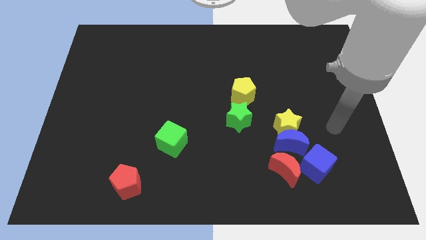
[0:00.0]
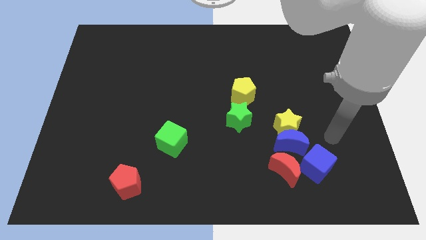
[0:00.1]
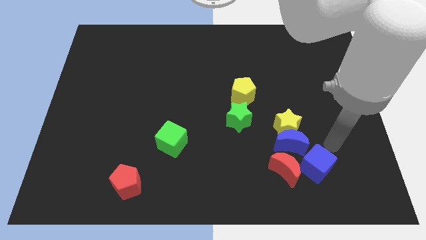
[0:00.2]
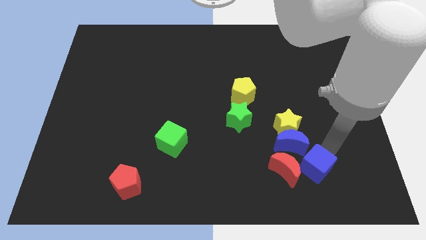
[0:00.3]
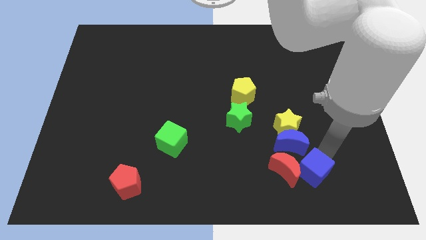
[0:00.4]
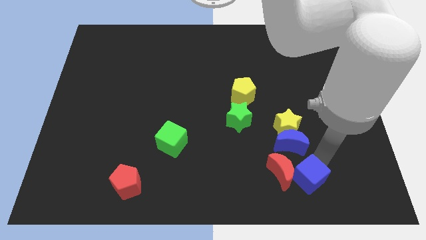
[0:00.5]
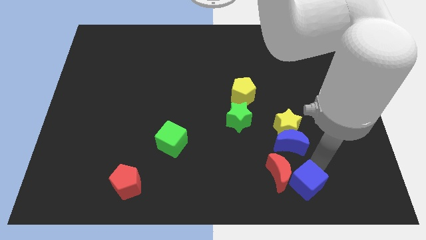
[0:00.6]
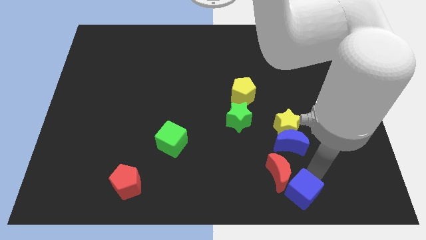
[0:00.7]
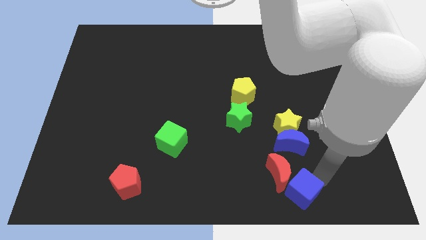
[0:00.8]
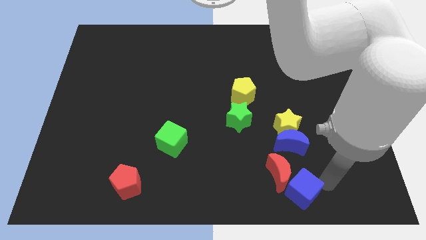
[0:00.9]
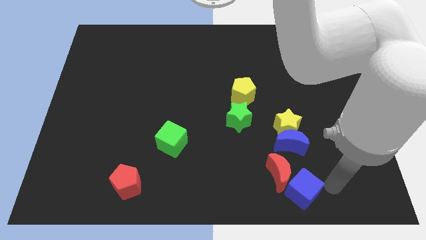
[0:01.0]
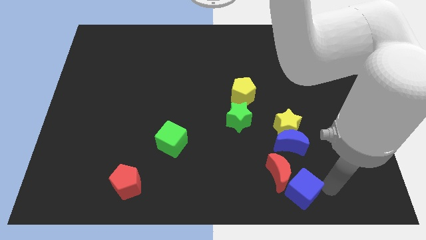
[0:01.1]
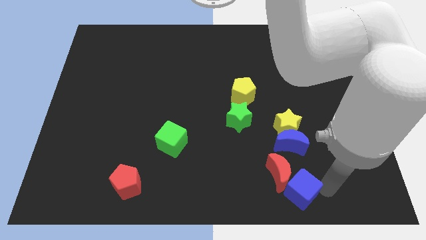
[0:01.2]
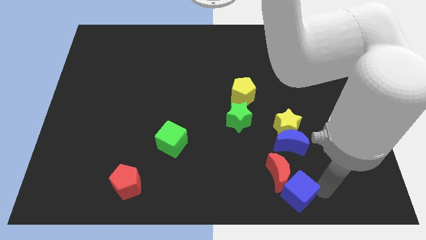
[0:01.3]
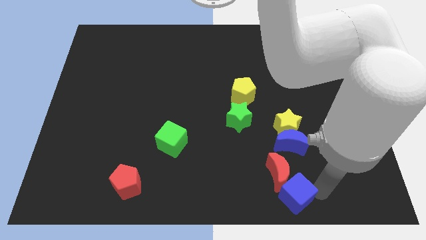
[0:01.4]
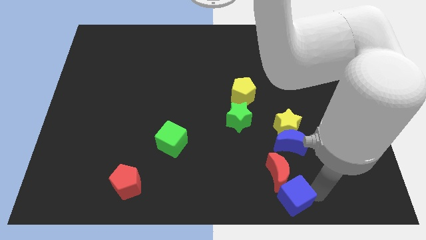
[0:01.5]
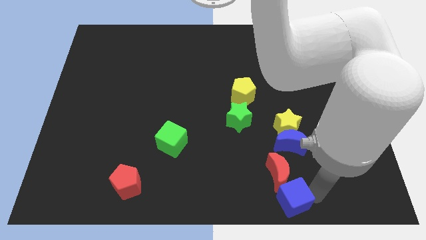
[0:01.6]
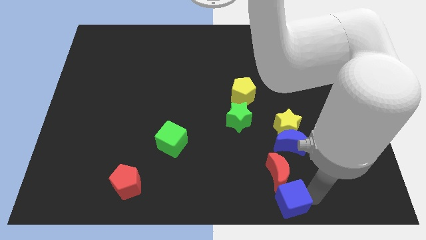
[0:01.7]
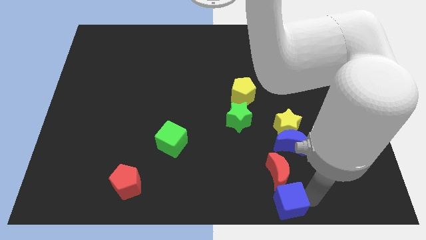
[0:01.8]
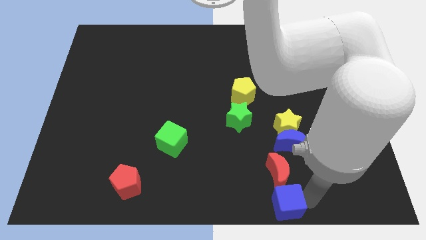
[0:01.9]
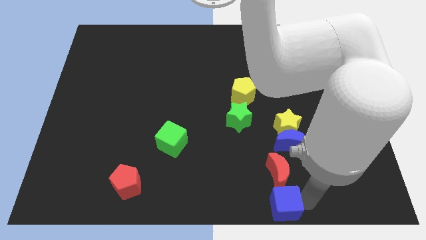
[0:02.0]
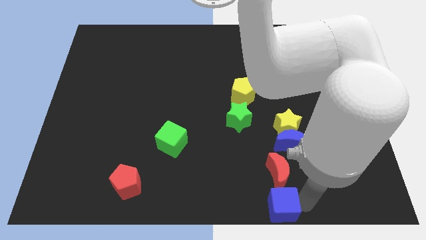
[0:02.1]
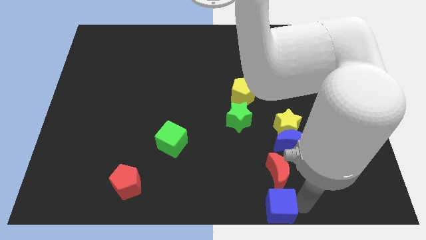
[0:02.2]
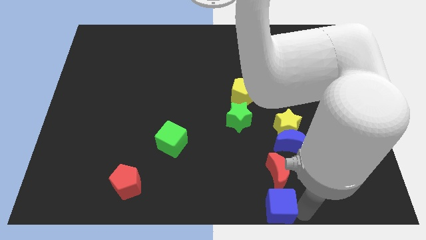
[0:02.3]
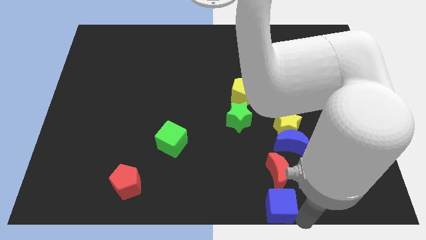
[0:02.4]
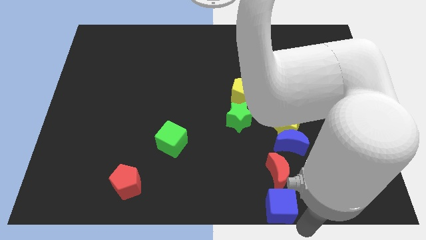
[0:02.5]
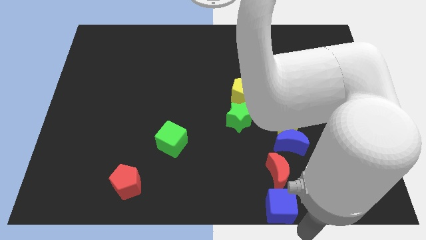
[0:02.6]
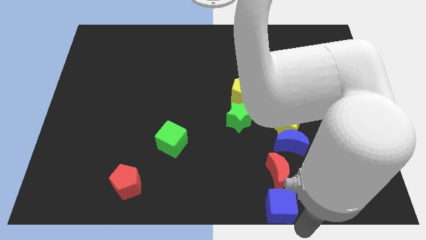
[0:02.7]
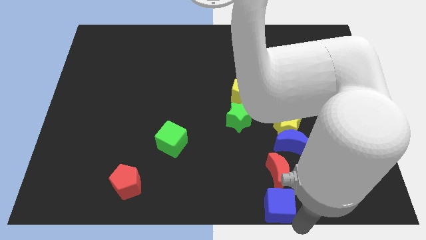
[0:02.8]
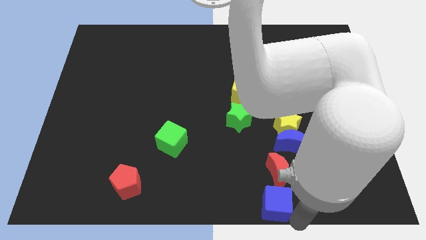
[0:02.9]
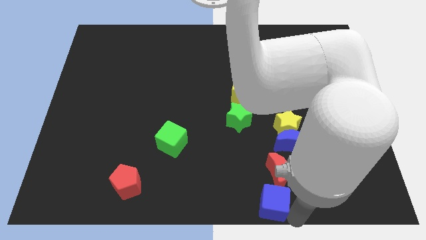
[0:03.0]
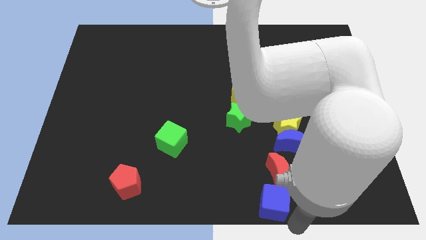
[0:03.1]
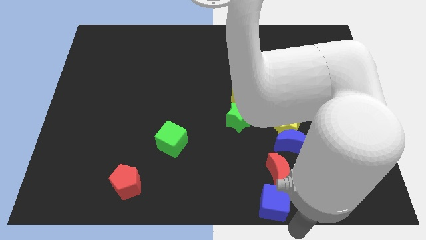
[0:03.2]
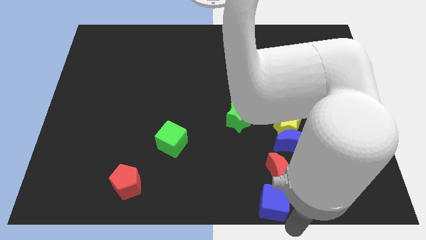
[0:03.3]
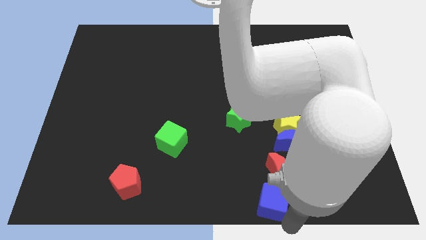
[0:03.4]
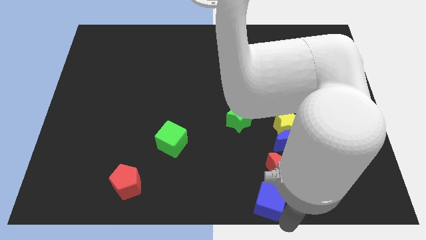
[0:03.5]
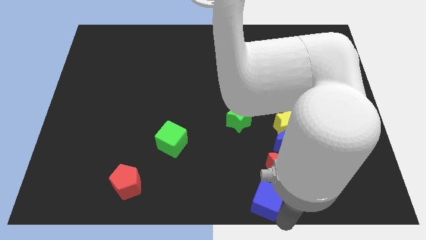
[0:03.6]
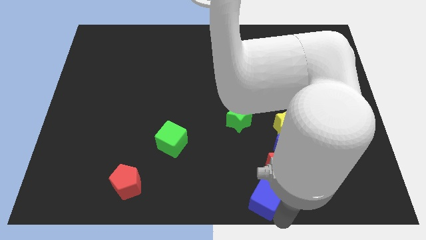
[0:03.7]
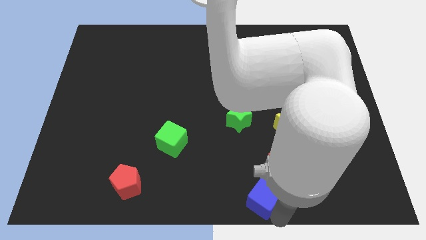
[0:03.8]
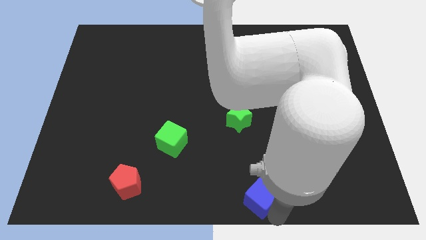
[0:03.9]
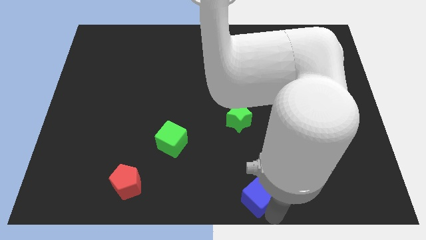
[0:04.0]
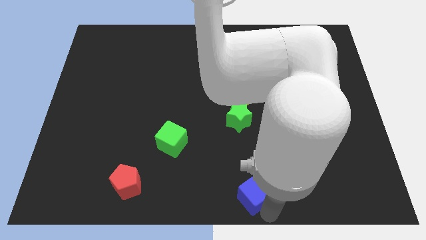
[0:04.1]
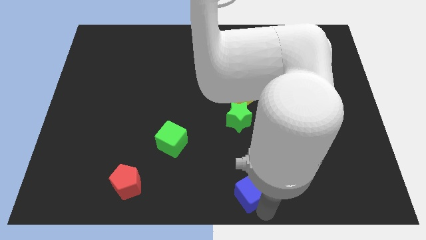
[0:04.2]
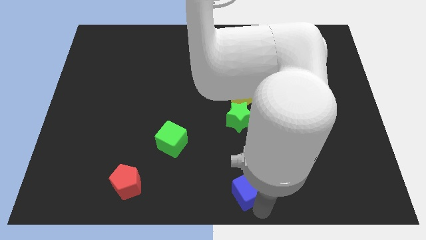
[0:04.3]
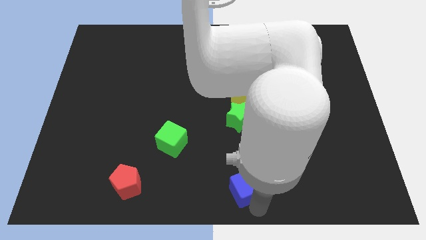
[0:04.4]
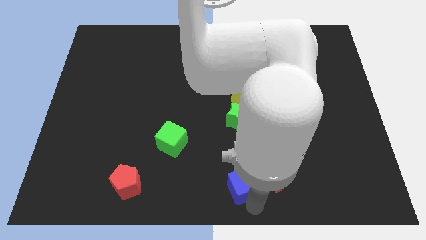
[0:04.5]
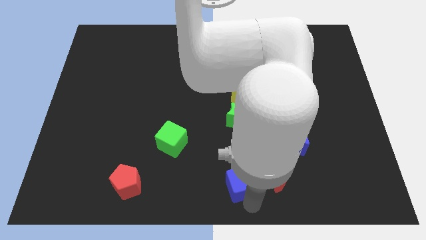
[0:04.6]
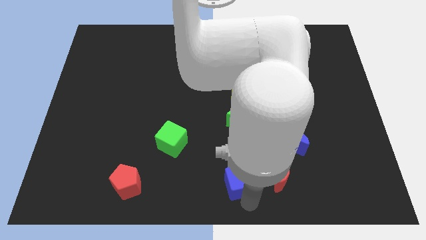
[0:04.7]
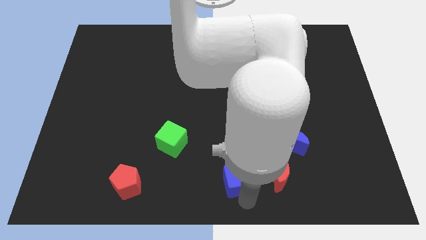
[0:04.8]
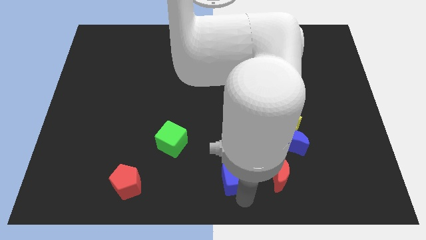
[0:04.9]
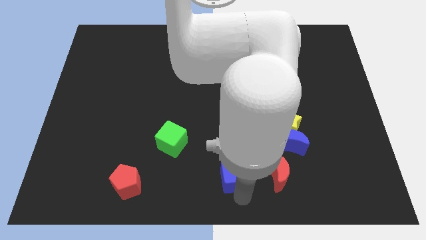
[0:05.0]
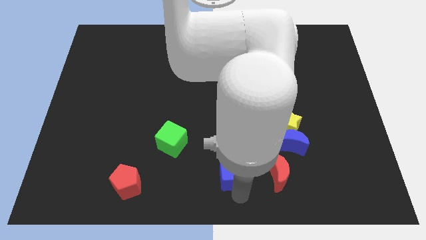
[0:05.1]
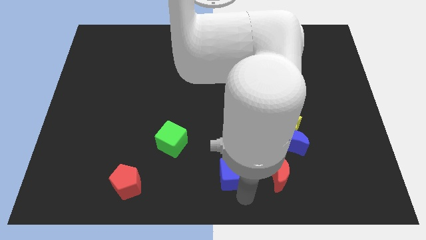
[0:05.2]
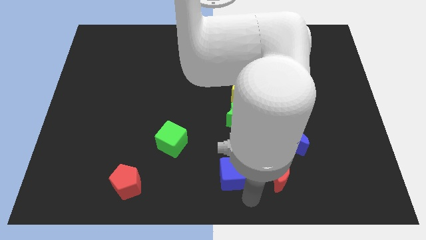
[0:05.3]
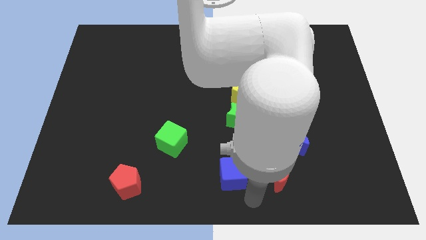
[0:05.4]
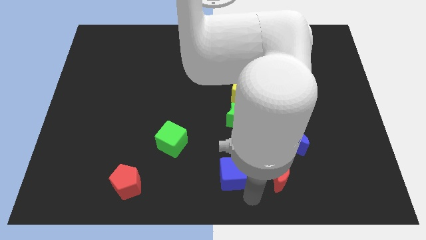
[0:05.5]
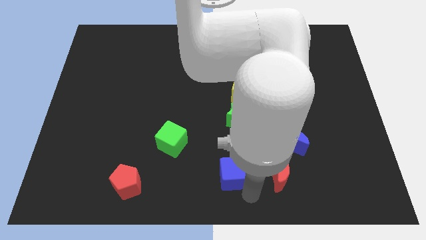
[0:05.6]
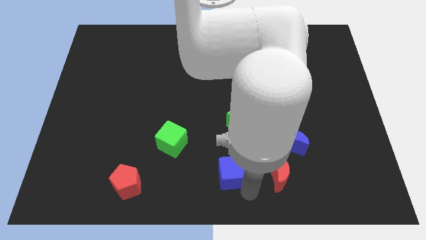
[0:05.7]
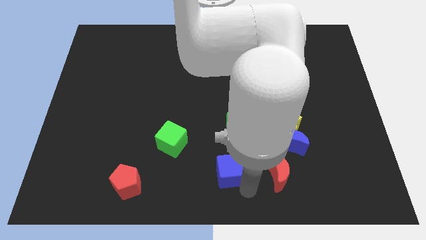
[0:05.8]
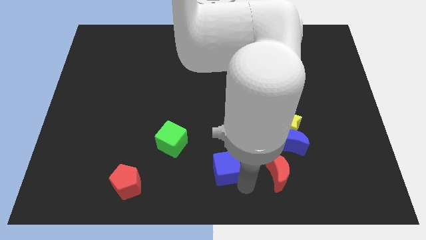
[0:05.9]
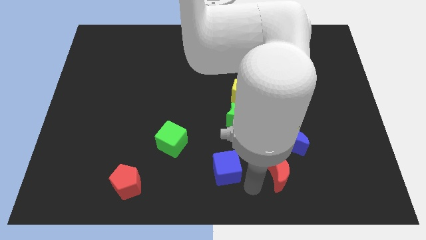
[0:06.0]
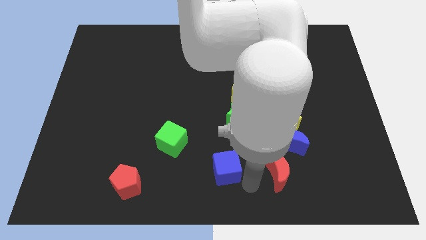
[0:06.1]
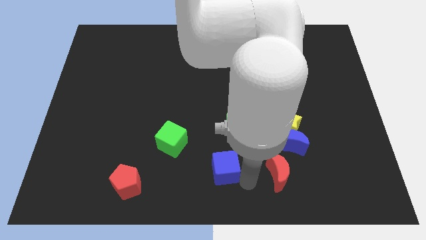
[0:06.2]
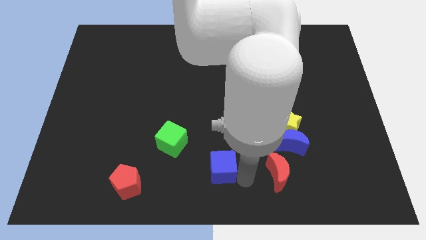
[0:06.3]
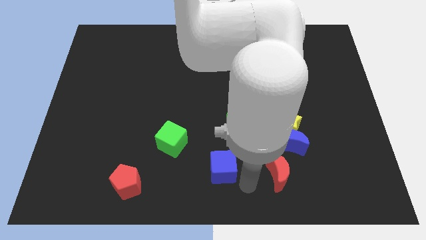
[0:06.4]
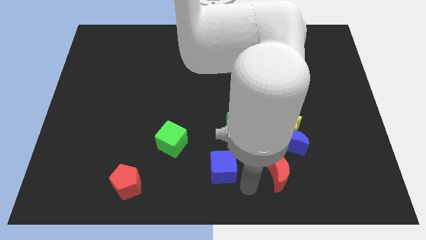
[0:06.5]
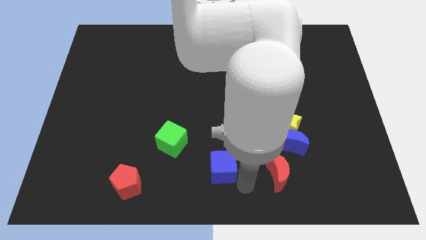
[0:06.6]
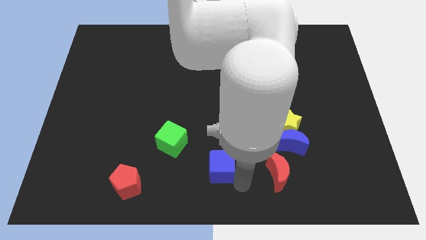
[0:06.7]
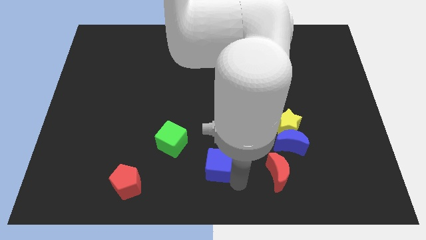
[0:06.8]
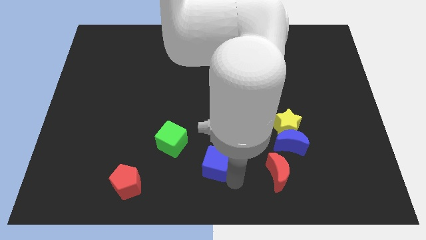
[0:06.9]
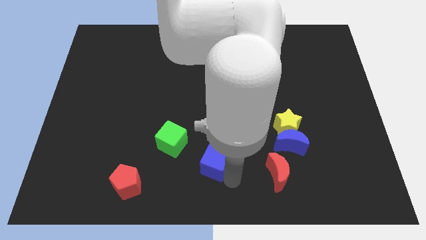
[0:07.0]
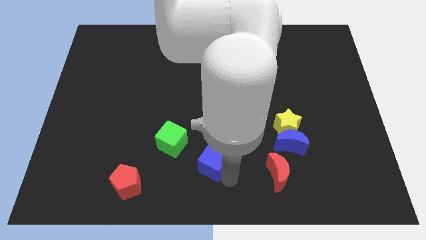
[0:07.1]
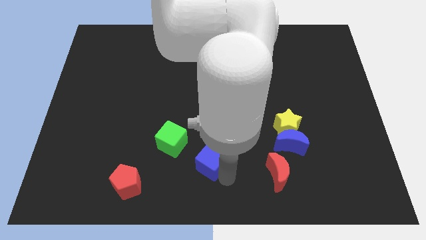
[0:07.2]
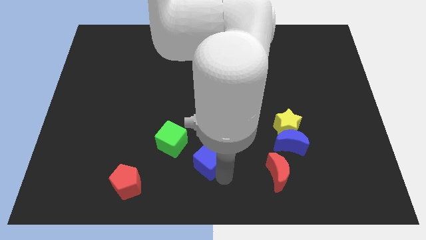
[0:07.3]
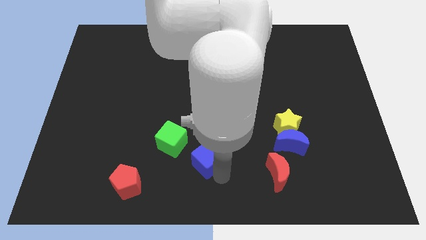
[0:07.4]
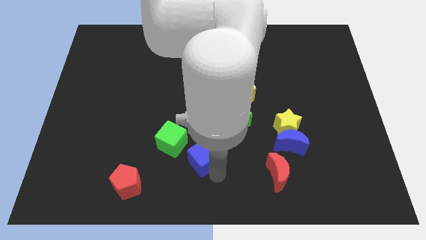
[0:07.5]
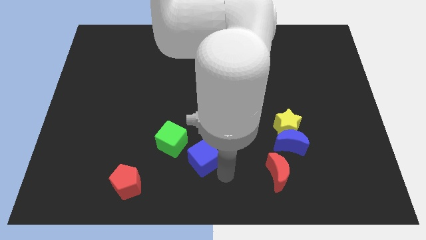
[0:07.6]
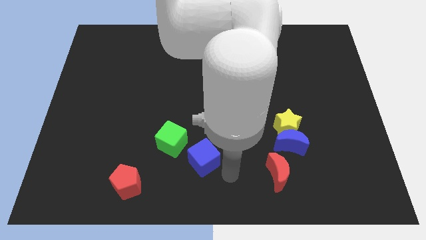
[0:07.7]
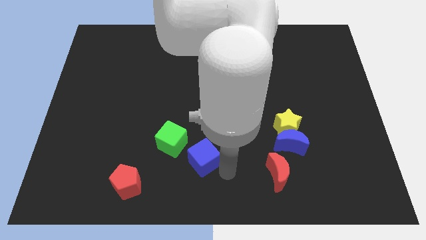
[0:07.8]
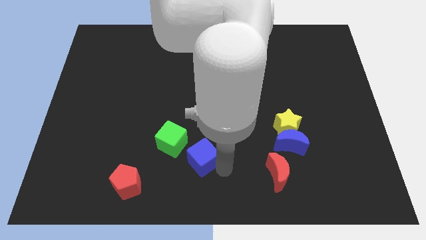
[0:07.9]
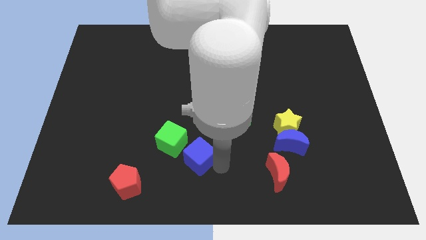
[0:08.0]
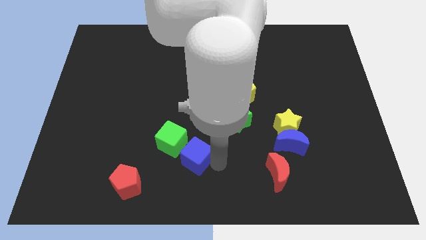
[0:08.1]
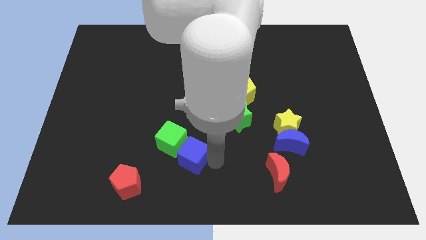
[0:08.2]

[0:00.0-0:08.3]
move the blue cube towards the green cube
